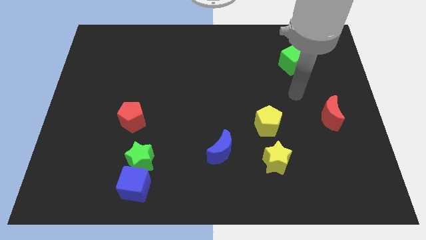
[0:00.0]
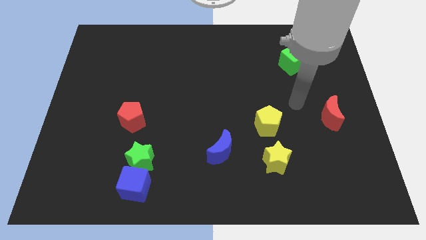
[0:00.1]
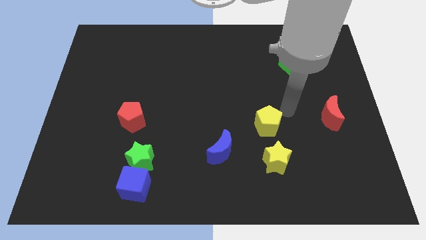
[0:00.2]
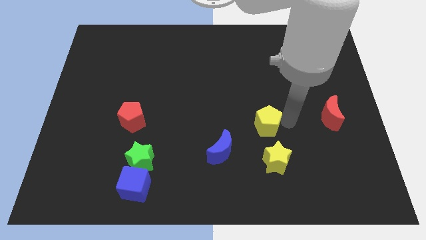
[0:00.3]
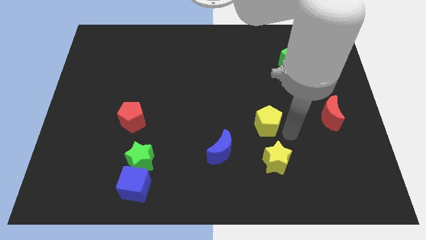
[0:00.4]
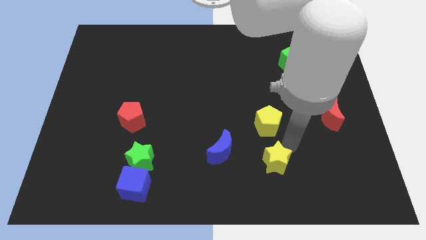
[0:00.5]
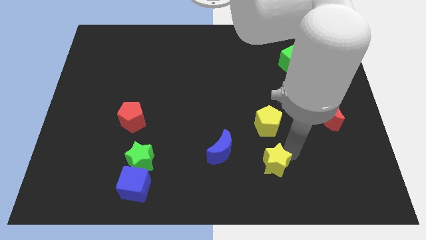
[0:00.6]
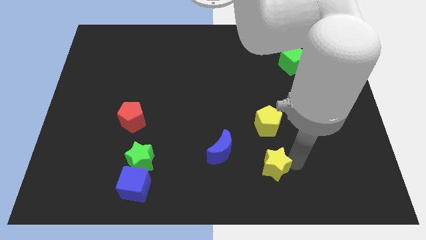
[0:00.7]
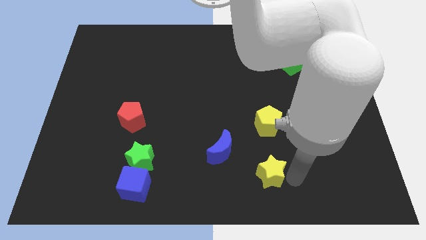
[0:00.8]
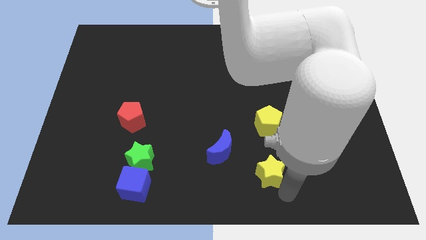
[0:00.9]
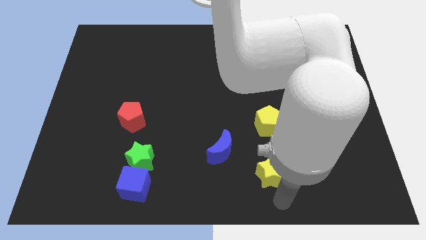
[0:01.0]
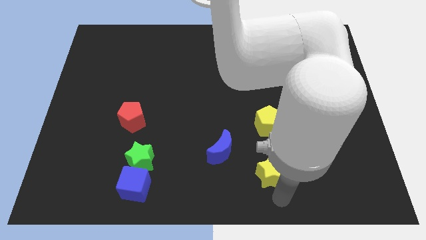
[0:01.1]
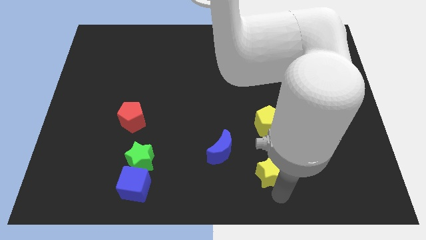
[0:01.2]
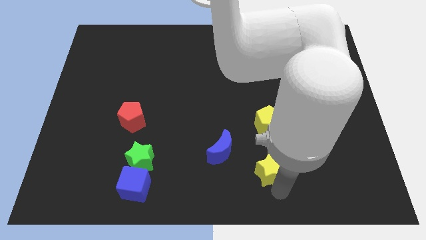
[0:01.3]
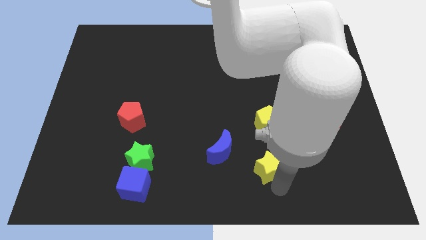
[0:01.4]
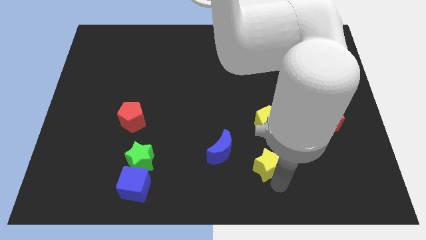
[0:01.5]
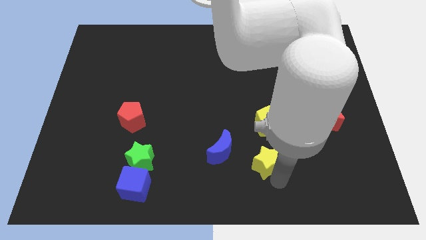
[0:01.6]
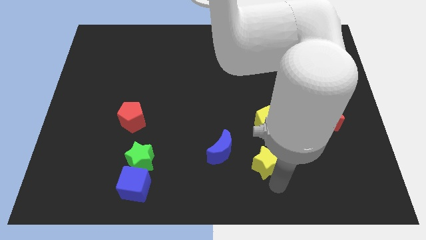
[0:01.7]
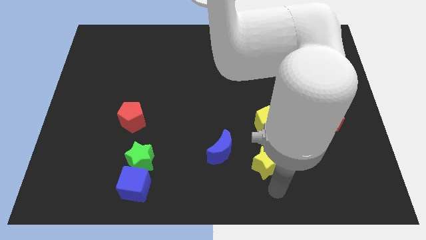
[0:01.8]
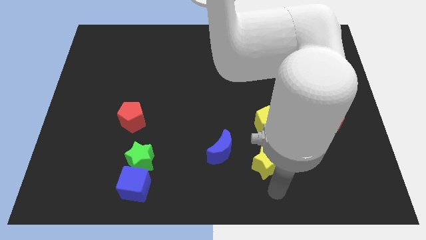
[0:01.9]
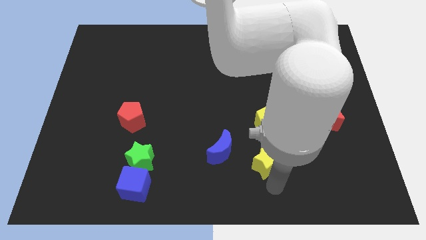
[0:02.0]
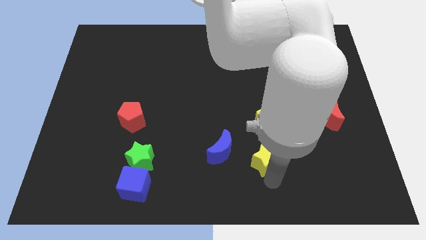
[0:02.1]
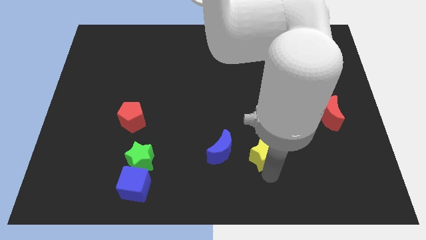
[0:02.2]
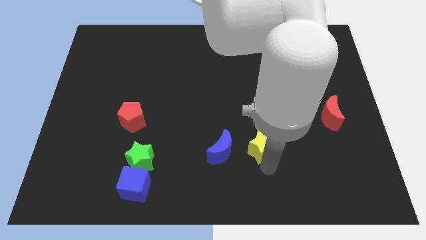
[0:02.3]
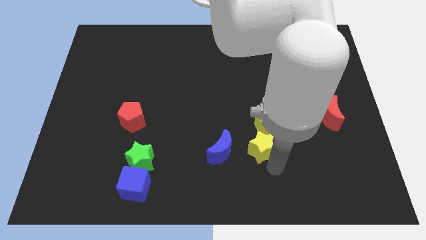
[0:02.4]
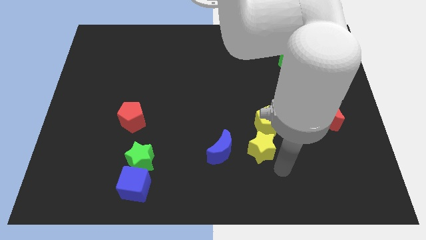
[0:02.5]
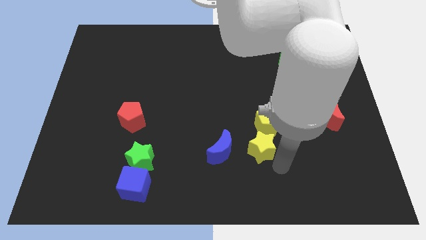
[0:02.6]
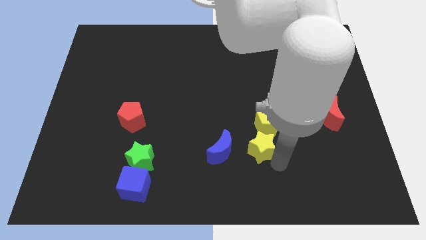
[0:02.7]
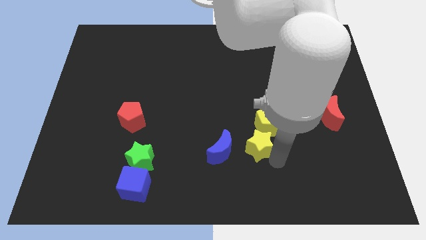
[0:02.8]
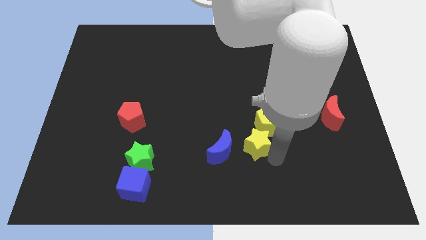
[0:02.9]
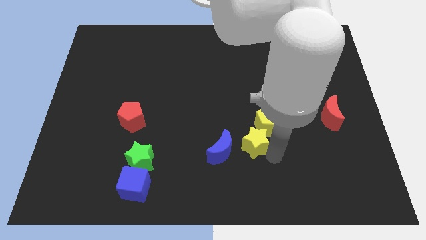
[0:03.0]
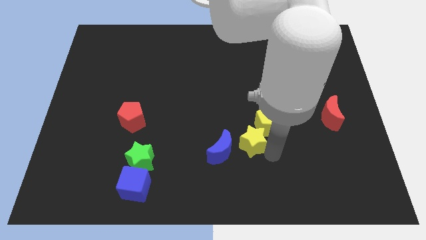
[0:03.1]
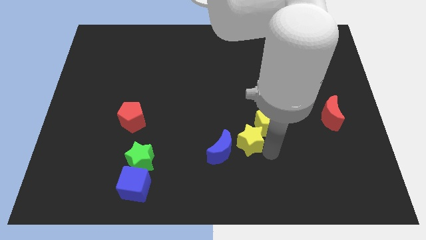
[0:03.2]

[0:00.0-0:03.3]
slightly slide the yellow star up and then left

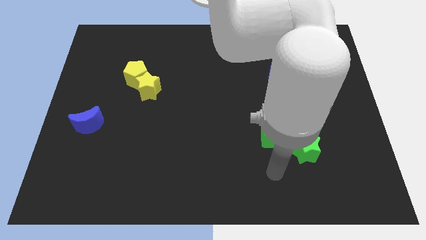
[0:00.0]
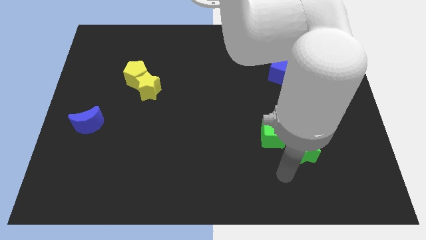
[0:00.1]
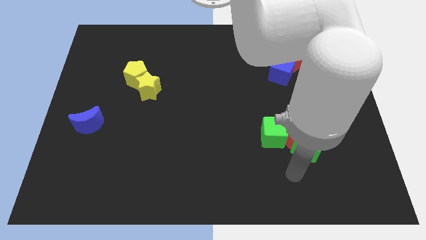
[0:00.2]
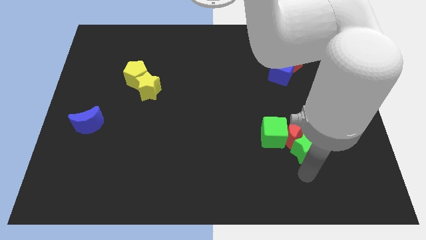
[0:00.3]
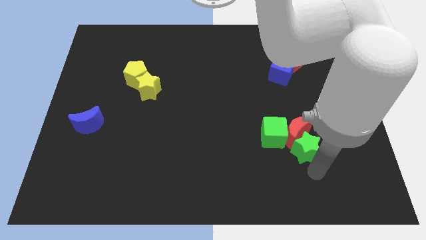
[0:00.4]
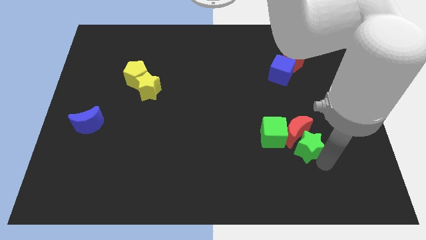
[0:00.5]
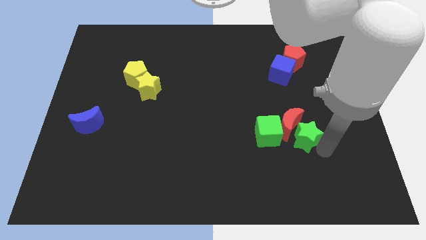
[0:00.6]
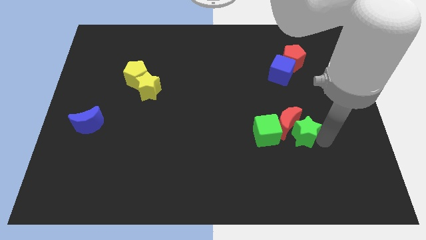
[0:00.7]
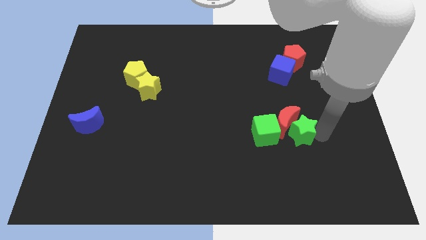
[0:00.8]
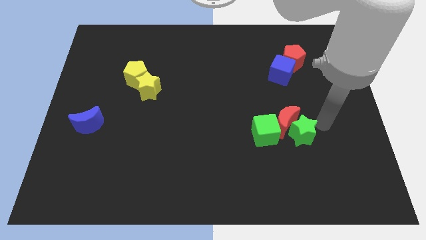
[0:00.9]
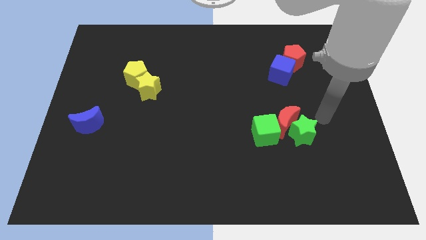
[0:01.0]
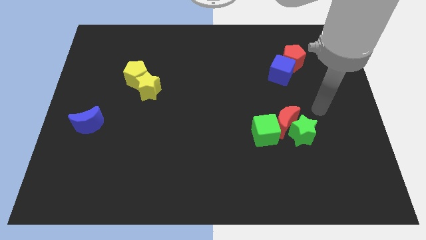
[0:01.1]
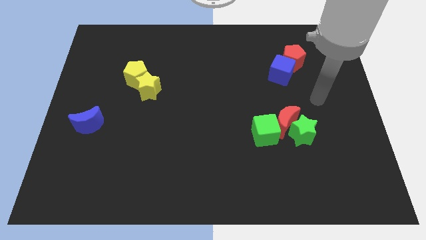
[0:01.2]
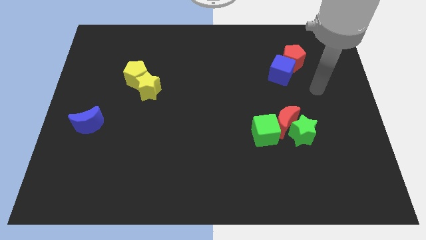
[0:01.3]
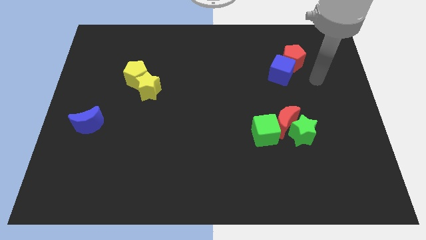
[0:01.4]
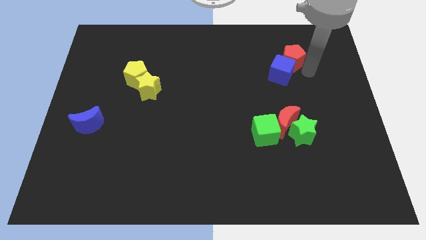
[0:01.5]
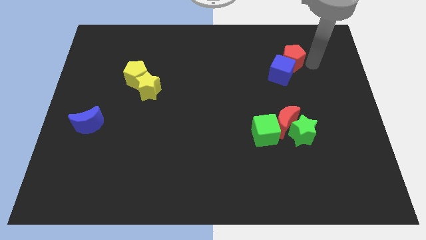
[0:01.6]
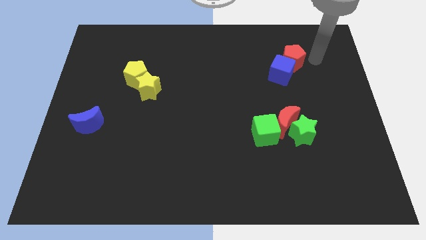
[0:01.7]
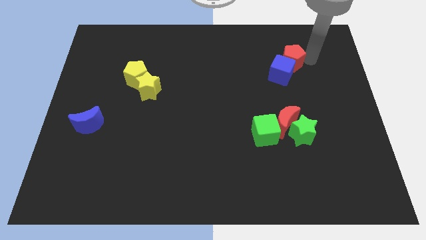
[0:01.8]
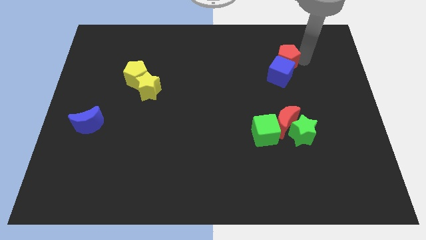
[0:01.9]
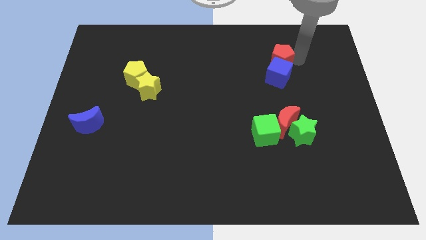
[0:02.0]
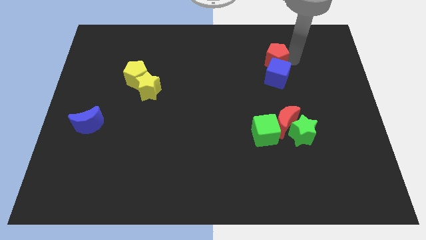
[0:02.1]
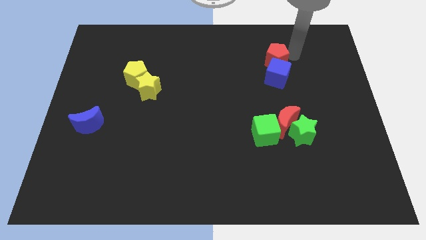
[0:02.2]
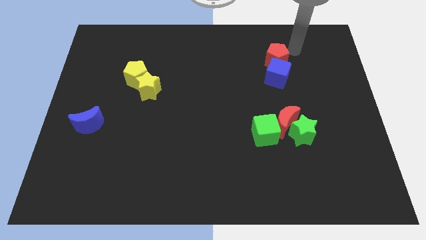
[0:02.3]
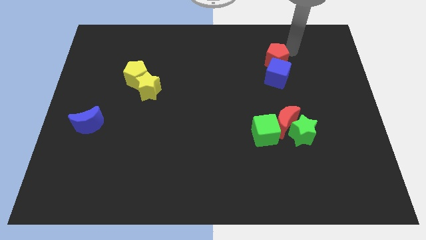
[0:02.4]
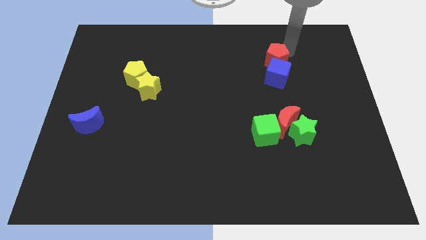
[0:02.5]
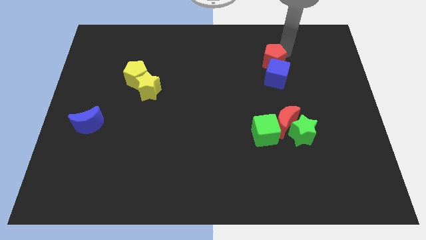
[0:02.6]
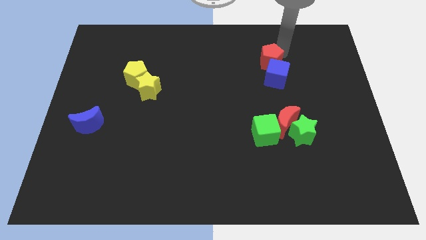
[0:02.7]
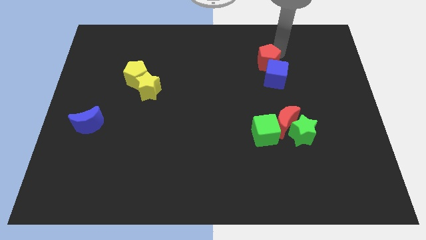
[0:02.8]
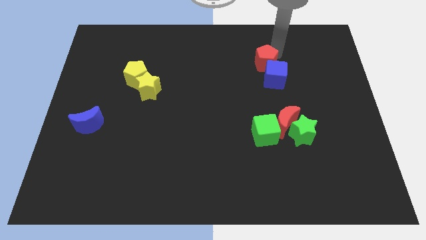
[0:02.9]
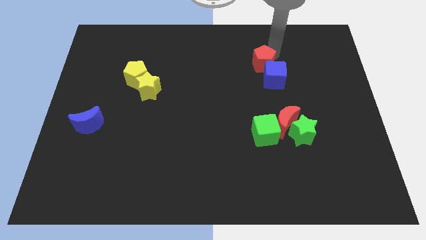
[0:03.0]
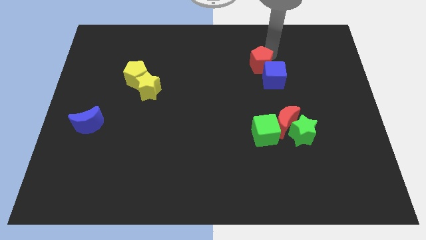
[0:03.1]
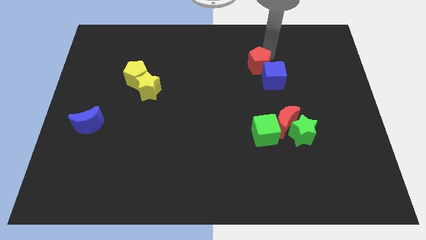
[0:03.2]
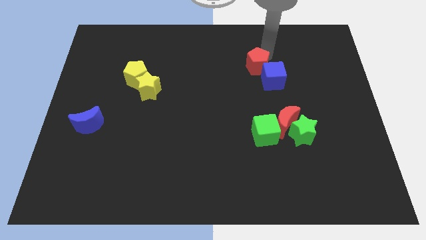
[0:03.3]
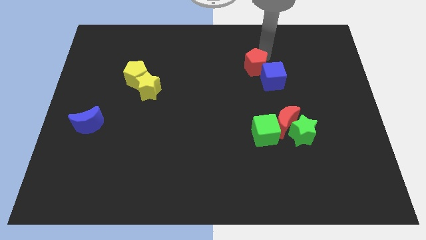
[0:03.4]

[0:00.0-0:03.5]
move the red pentagon a little bit down and left

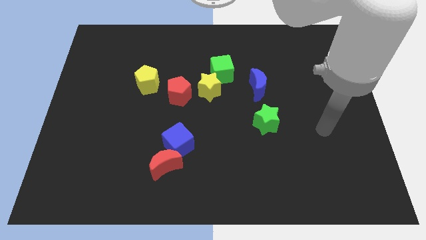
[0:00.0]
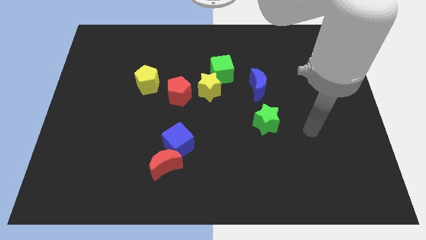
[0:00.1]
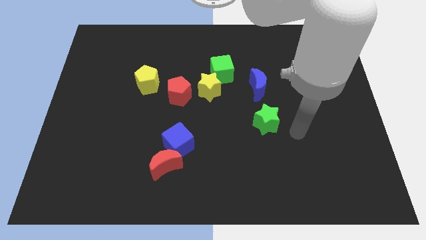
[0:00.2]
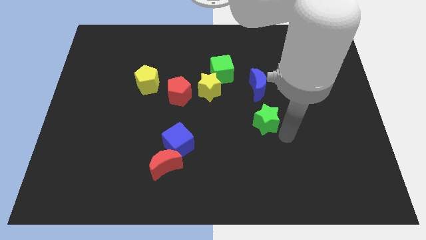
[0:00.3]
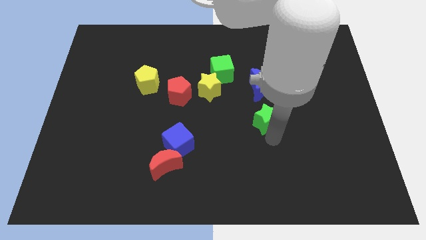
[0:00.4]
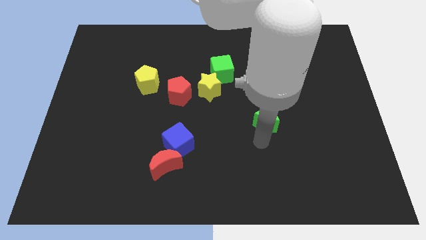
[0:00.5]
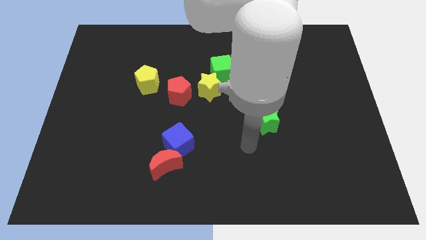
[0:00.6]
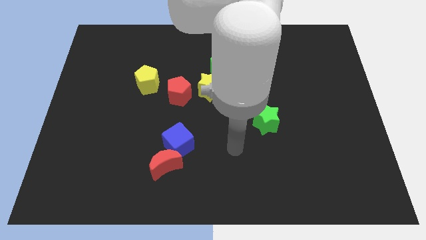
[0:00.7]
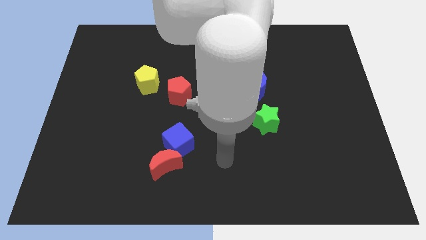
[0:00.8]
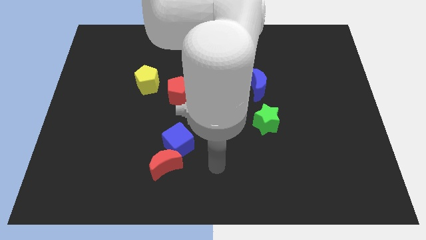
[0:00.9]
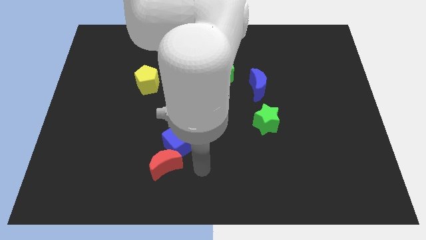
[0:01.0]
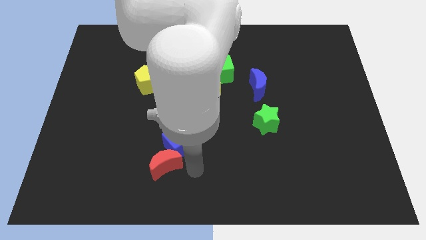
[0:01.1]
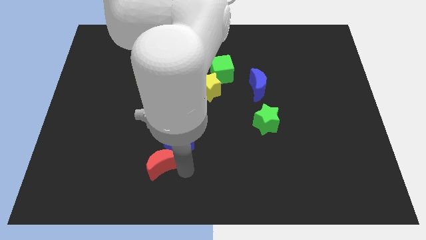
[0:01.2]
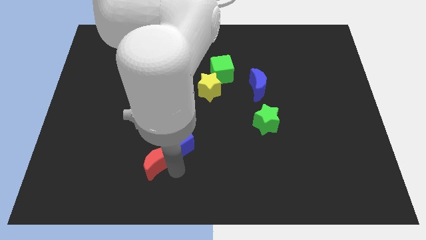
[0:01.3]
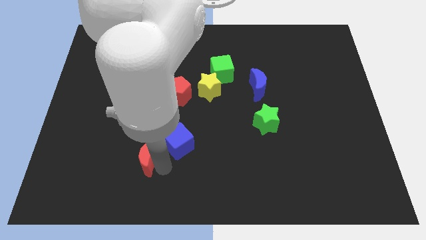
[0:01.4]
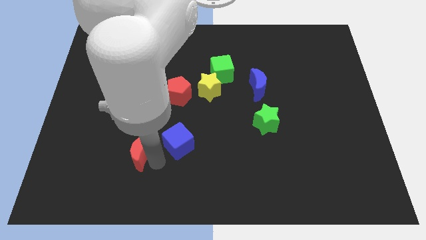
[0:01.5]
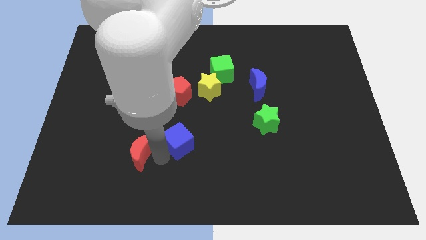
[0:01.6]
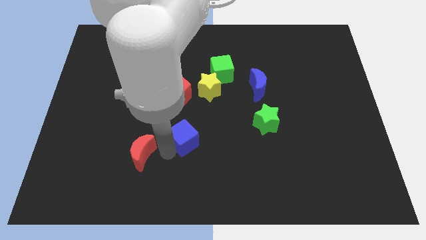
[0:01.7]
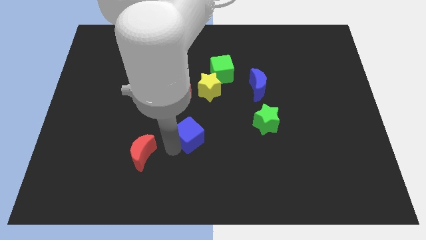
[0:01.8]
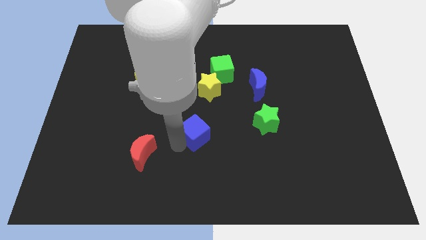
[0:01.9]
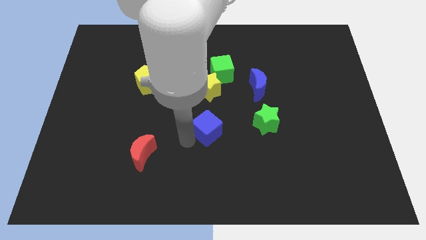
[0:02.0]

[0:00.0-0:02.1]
push the blue cube a little up and then to the right
